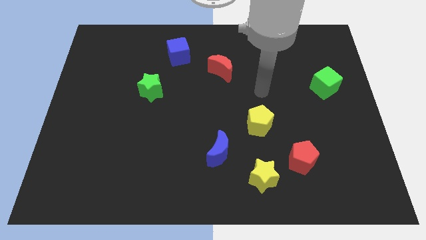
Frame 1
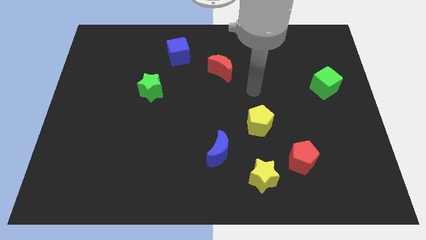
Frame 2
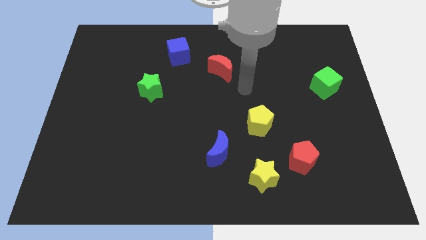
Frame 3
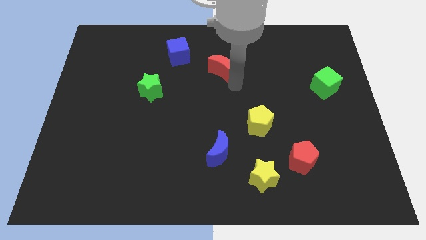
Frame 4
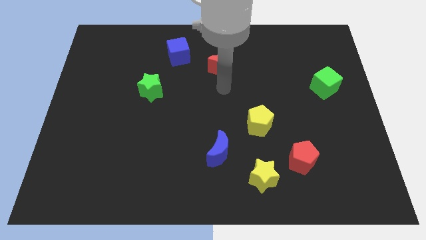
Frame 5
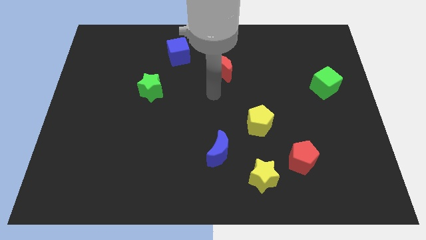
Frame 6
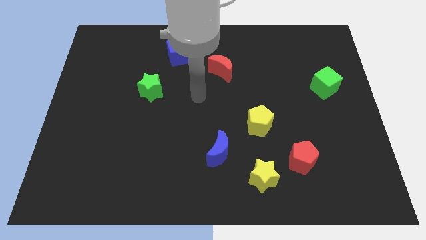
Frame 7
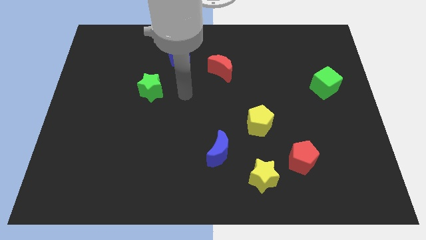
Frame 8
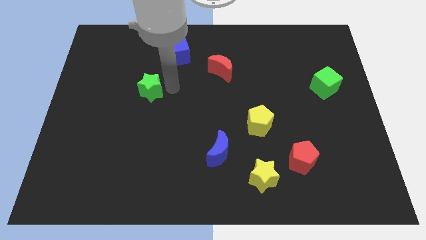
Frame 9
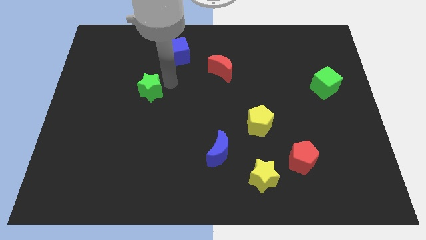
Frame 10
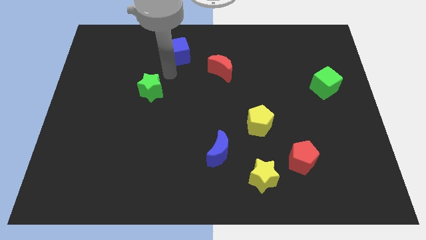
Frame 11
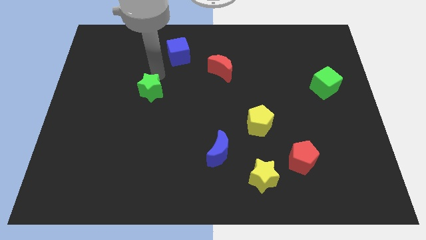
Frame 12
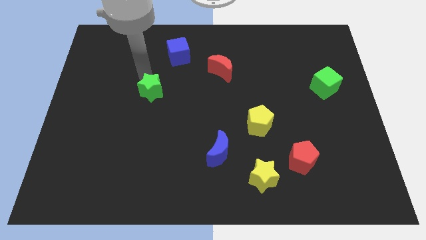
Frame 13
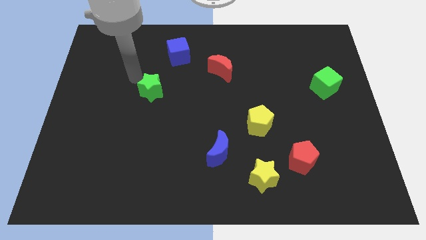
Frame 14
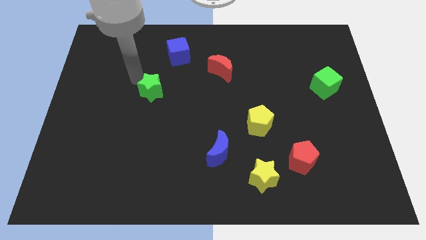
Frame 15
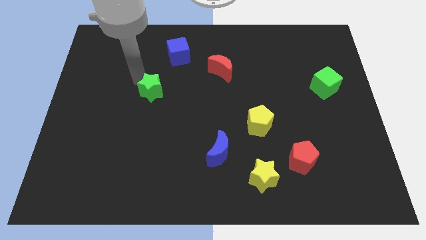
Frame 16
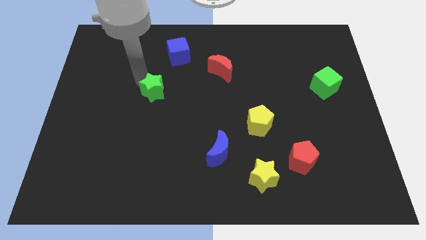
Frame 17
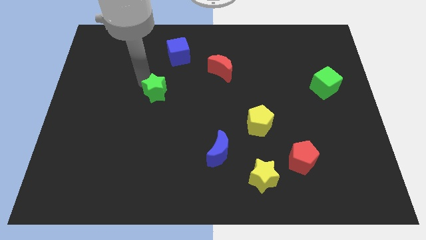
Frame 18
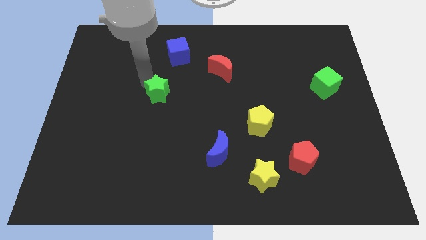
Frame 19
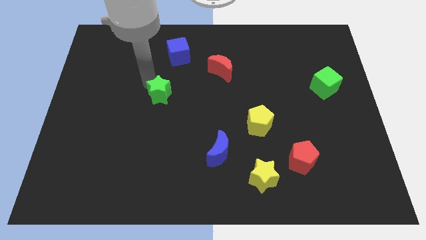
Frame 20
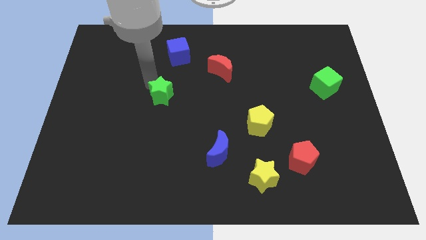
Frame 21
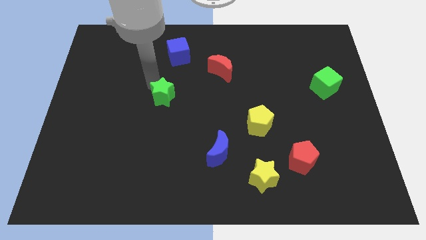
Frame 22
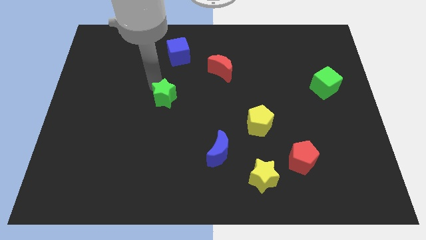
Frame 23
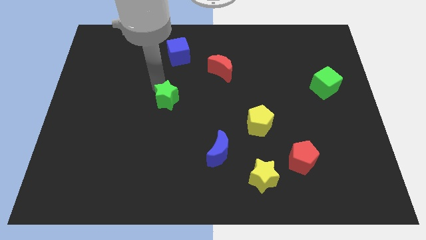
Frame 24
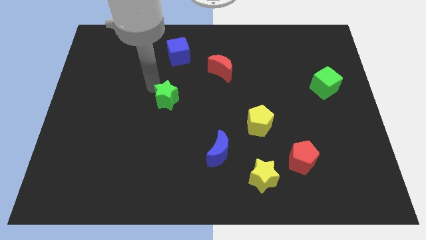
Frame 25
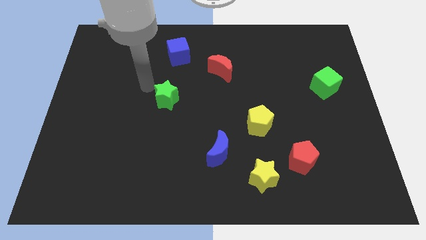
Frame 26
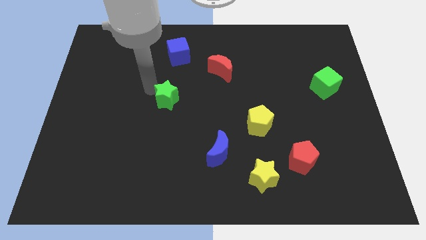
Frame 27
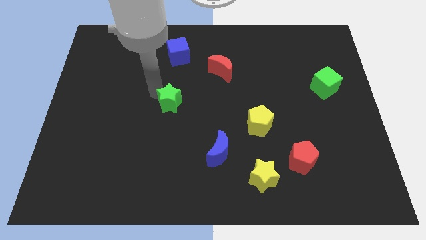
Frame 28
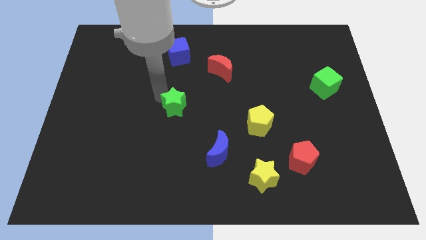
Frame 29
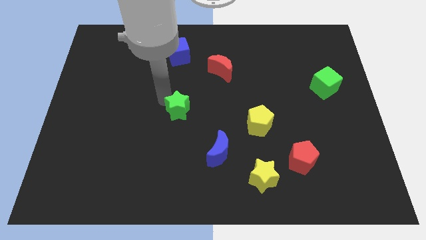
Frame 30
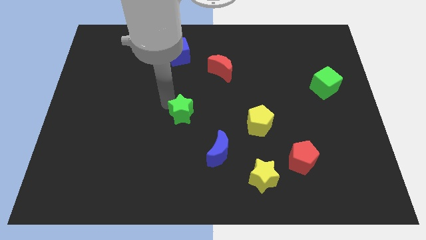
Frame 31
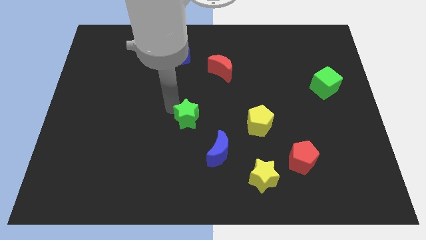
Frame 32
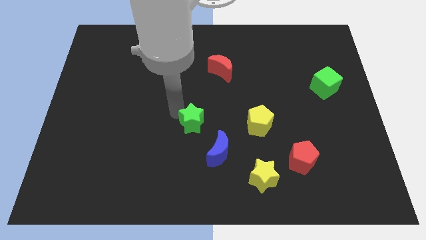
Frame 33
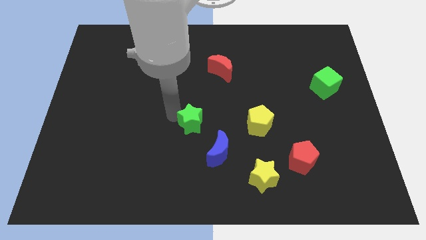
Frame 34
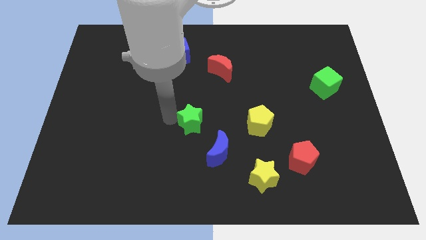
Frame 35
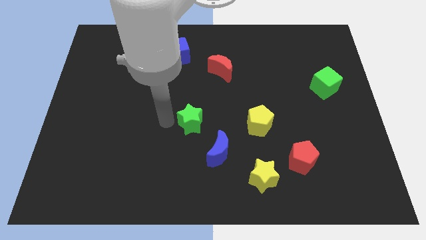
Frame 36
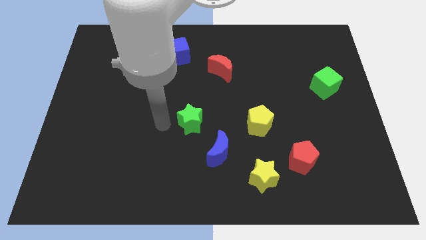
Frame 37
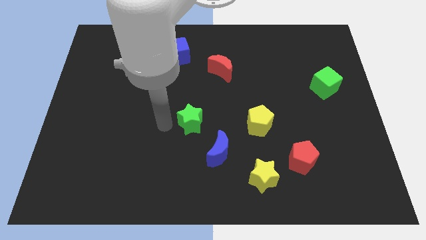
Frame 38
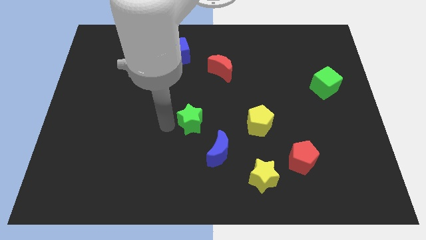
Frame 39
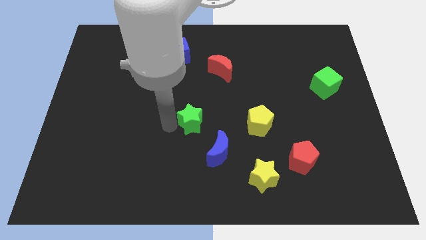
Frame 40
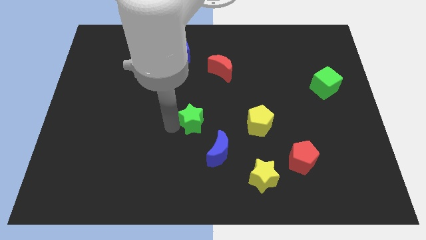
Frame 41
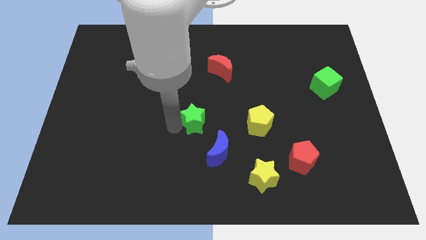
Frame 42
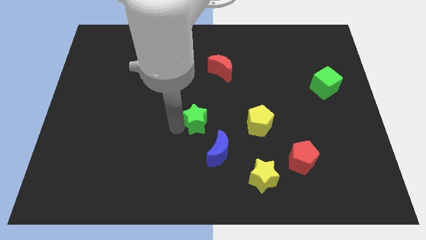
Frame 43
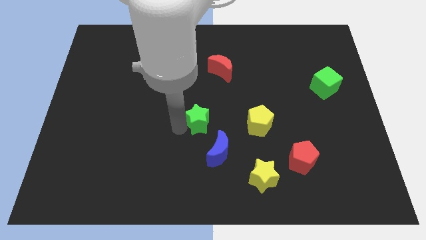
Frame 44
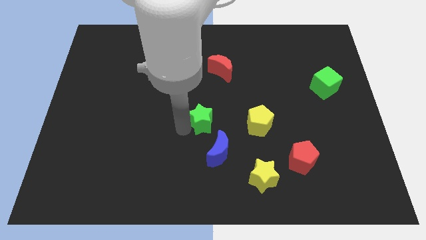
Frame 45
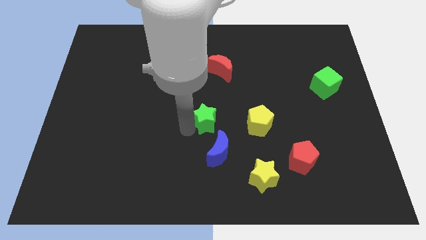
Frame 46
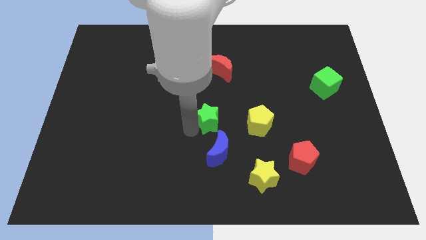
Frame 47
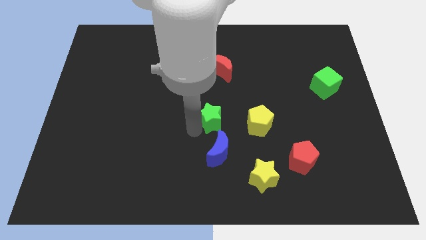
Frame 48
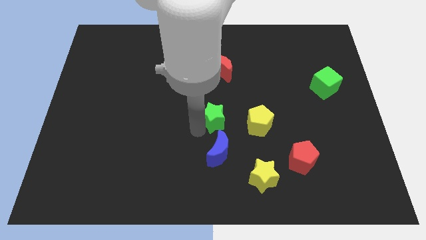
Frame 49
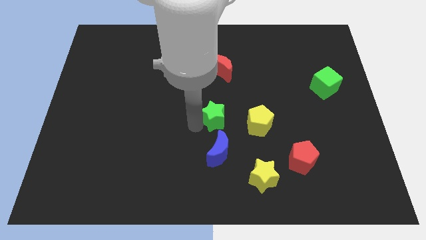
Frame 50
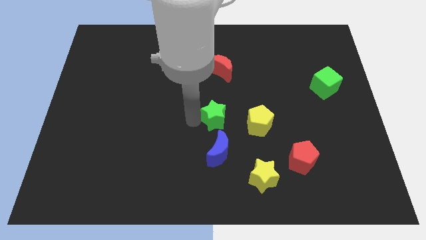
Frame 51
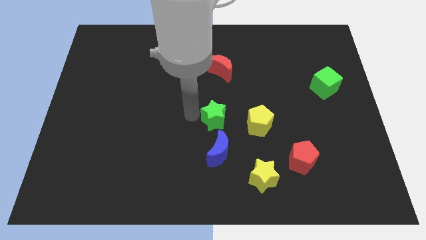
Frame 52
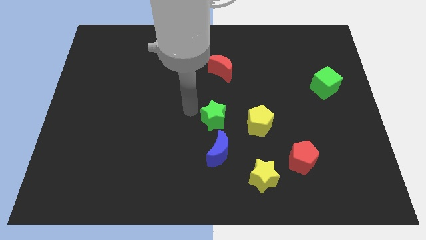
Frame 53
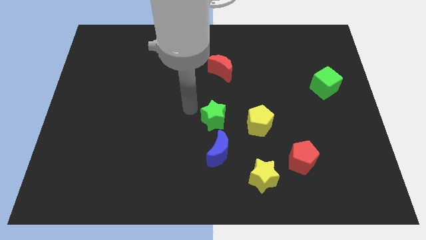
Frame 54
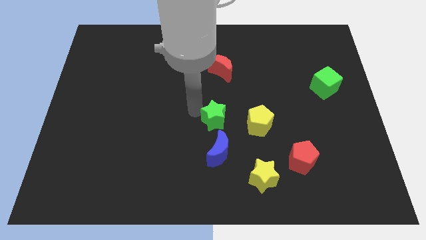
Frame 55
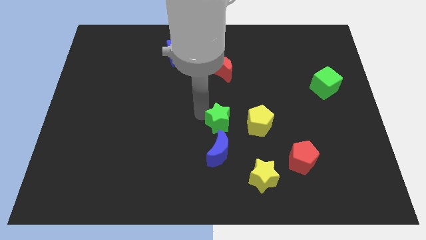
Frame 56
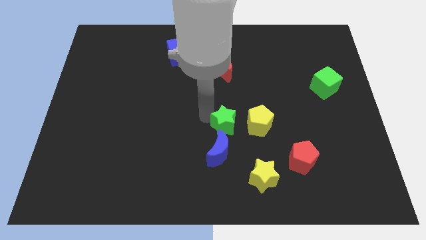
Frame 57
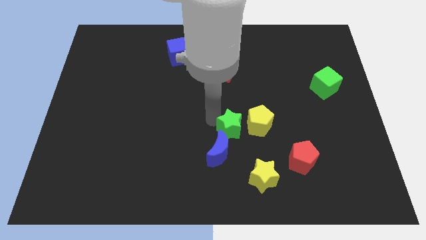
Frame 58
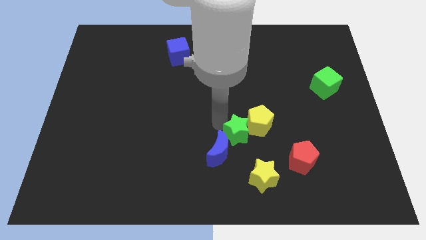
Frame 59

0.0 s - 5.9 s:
move the green star right of the blue moon

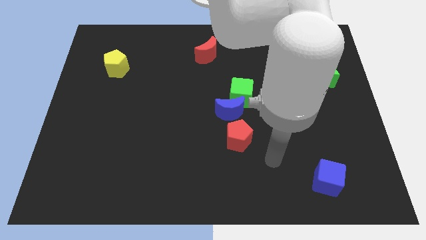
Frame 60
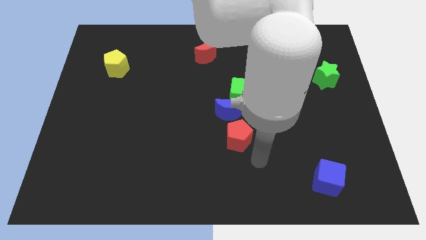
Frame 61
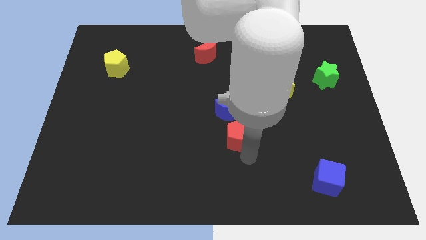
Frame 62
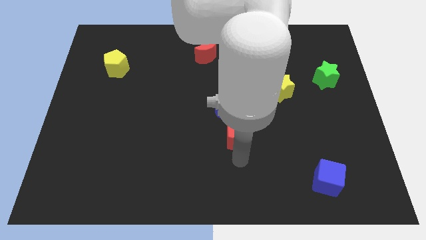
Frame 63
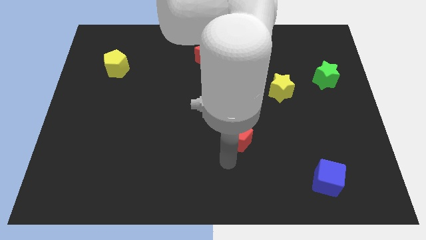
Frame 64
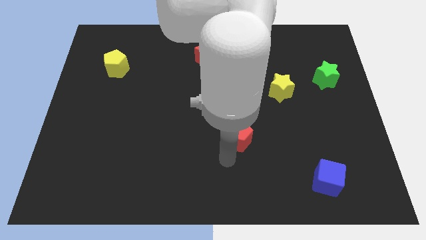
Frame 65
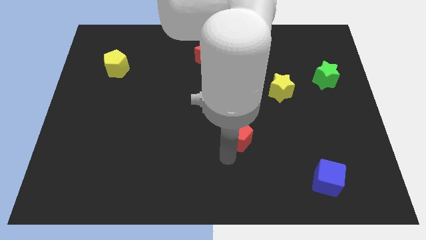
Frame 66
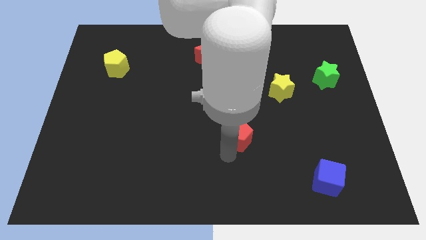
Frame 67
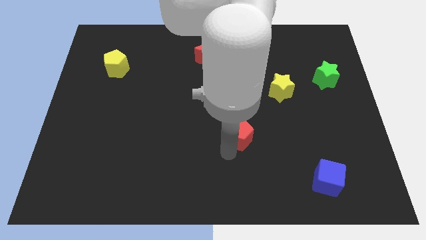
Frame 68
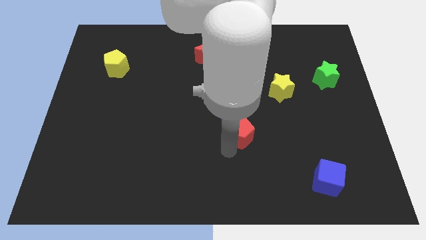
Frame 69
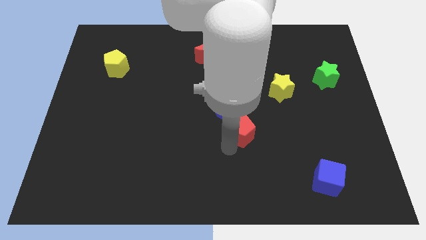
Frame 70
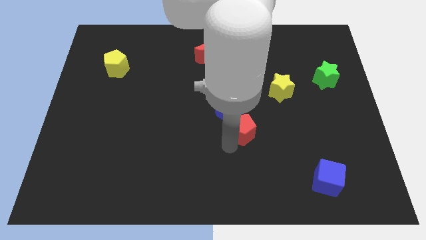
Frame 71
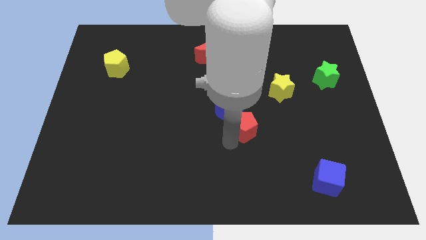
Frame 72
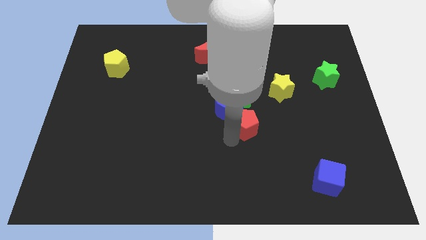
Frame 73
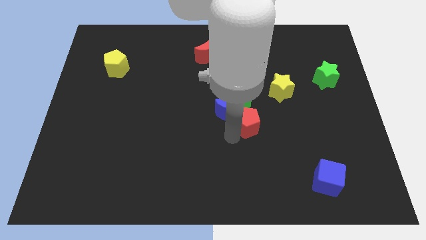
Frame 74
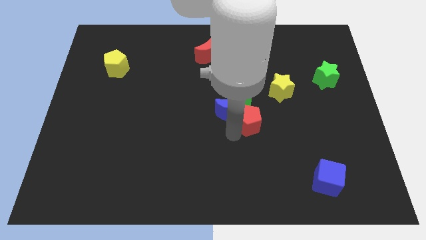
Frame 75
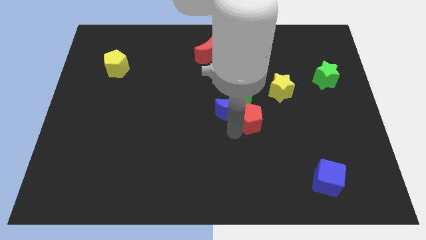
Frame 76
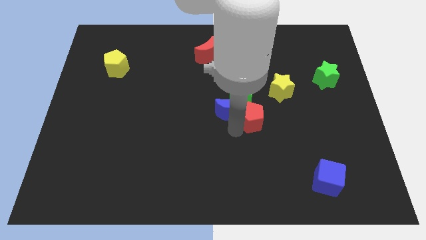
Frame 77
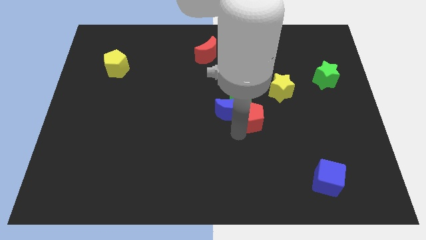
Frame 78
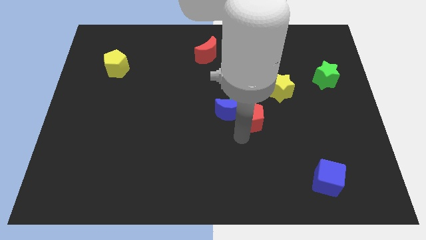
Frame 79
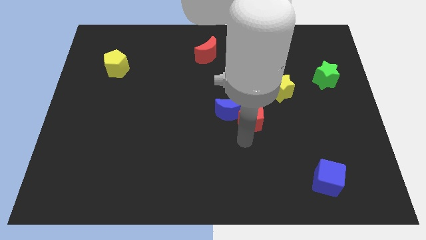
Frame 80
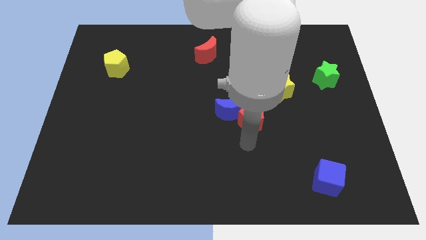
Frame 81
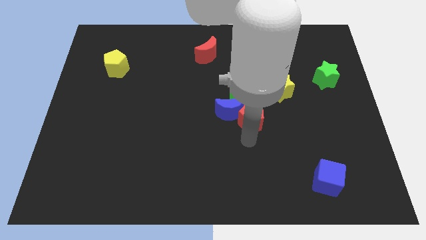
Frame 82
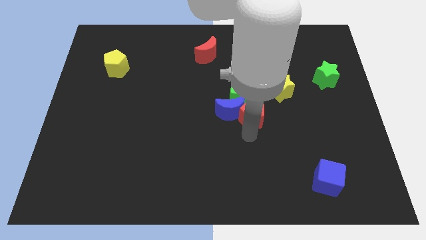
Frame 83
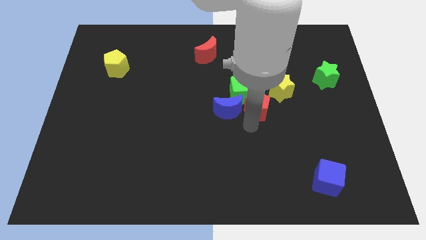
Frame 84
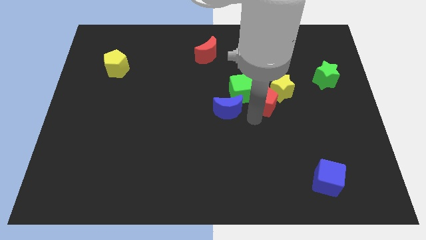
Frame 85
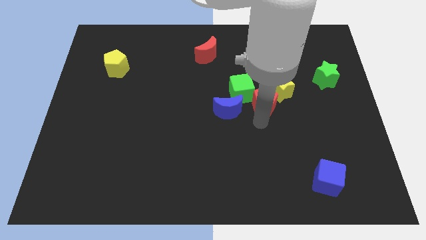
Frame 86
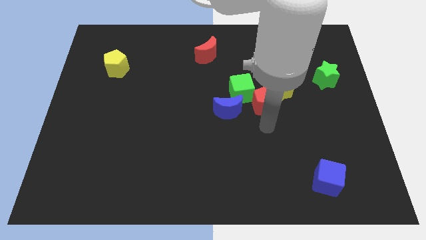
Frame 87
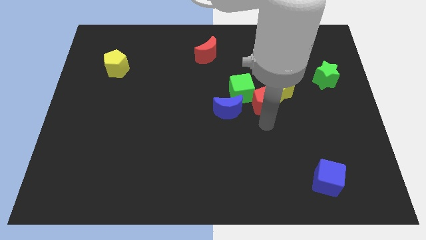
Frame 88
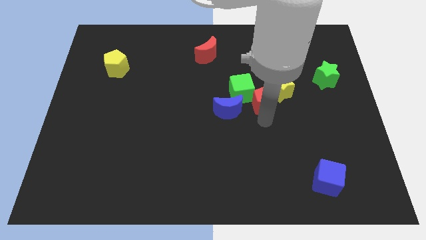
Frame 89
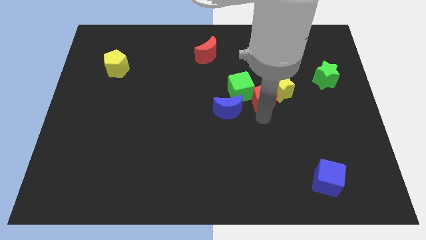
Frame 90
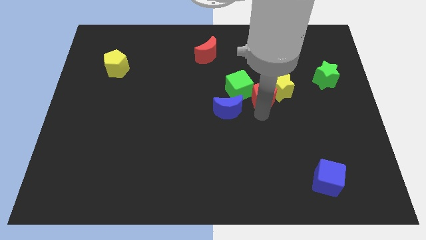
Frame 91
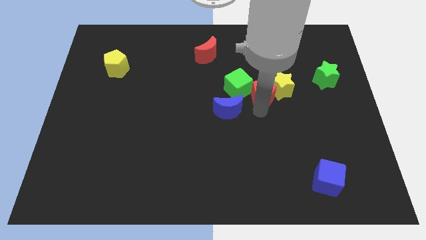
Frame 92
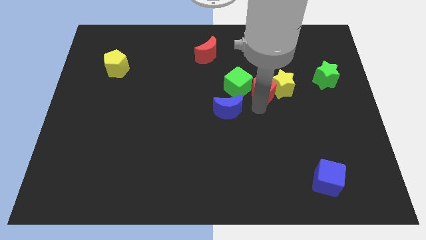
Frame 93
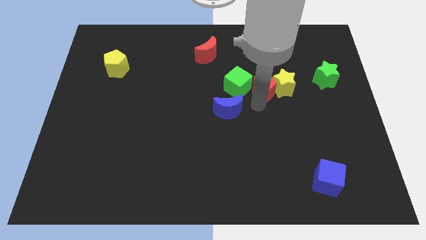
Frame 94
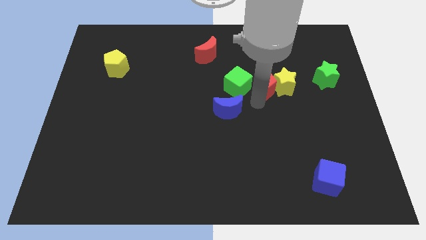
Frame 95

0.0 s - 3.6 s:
slide the red pentagon to the top right of the green cube
